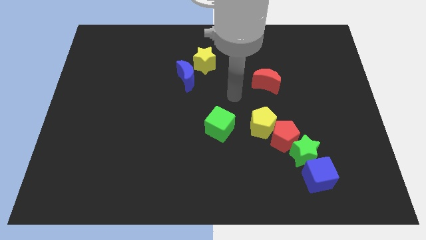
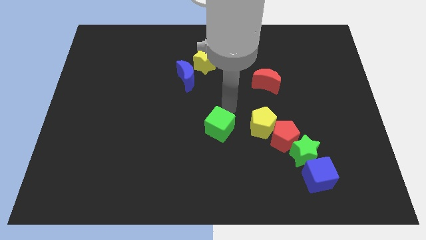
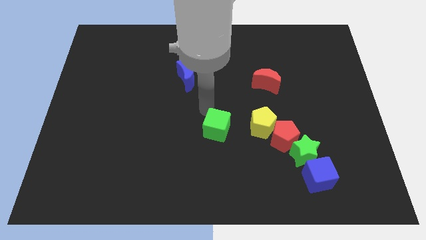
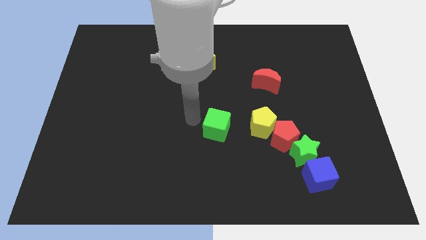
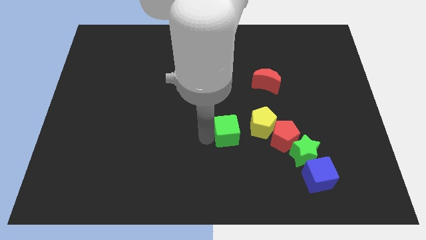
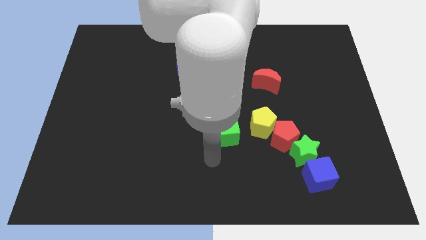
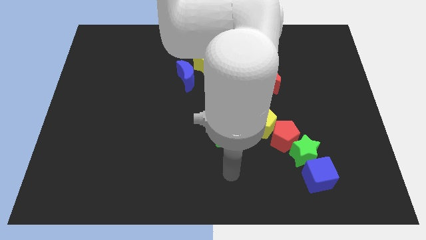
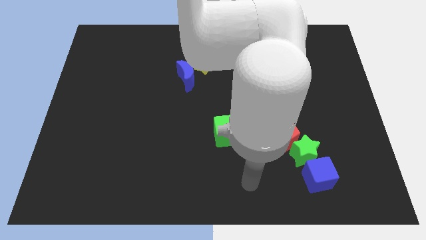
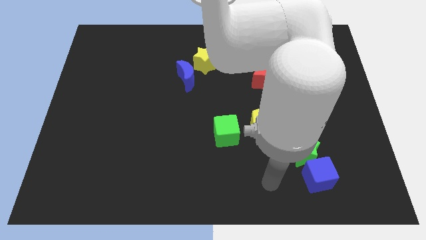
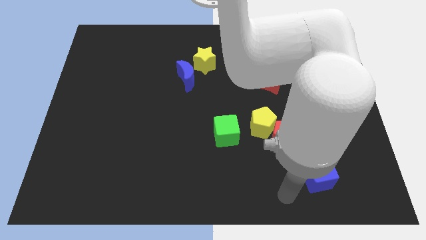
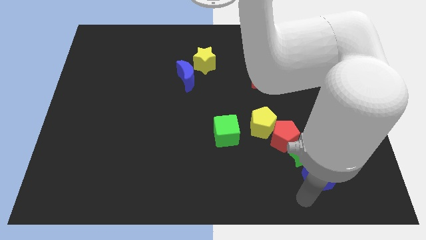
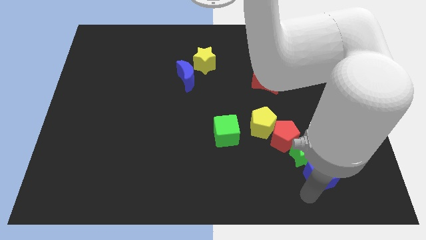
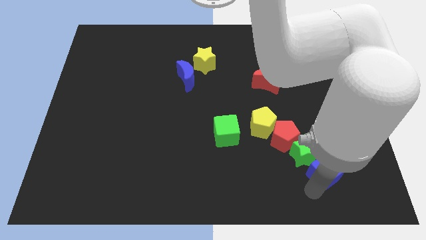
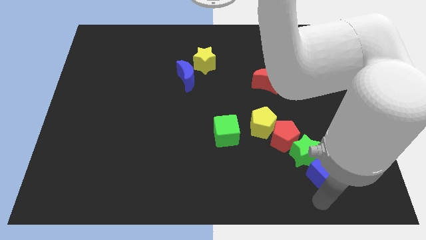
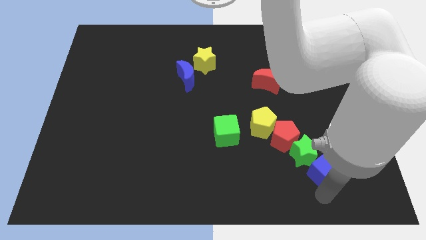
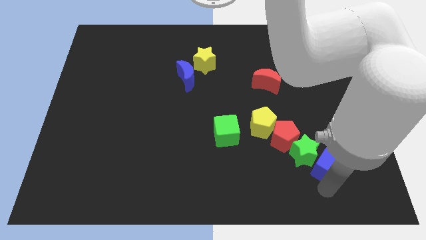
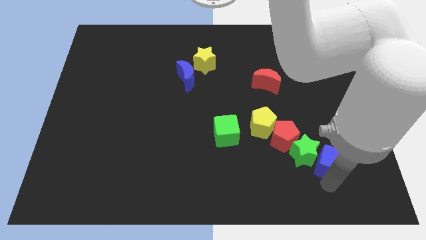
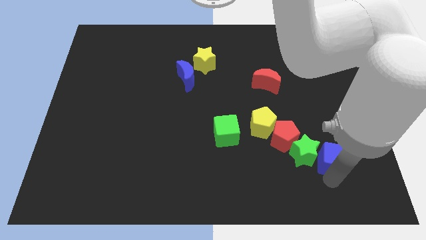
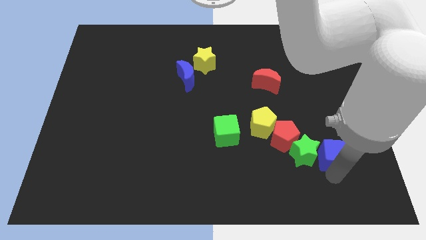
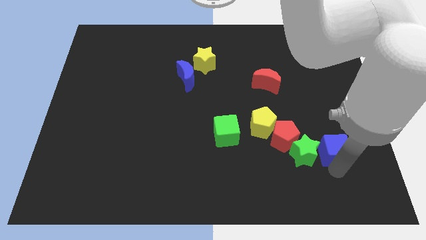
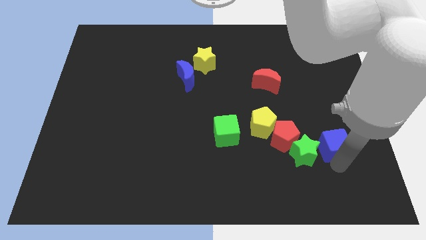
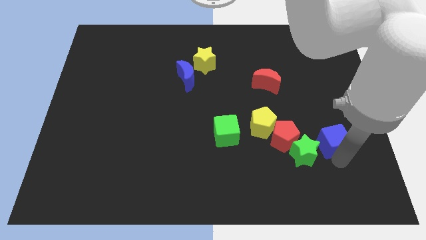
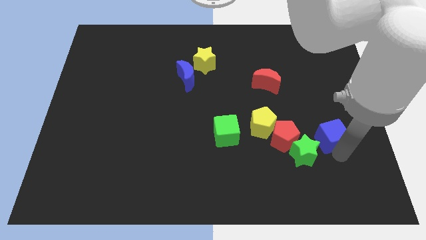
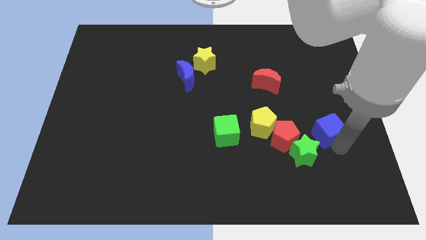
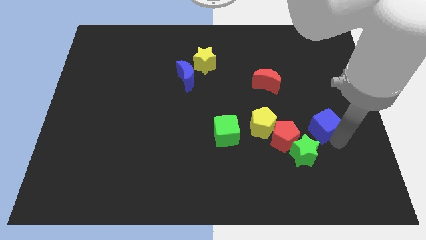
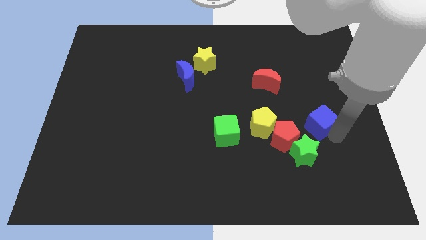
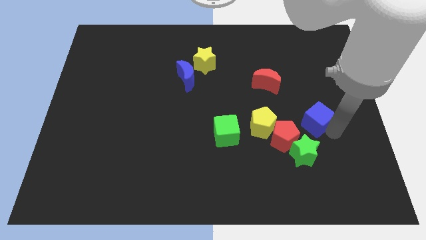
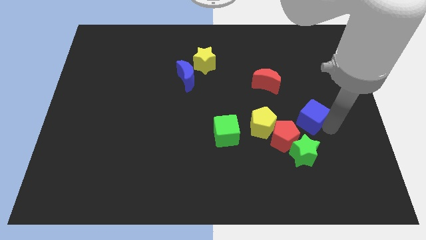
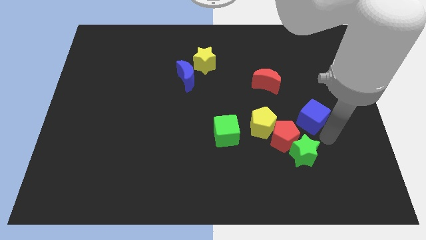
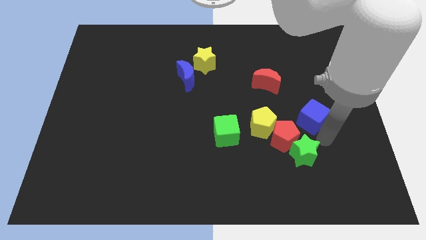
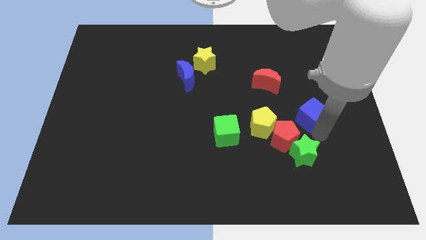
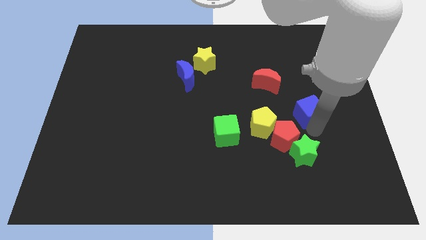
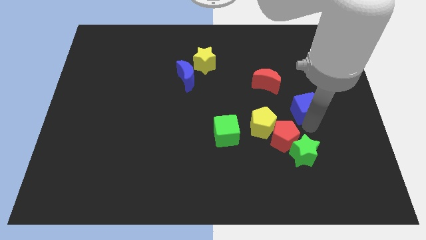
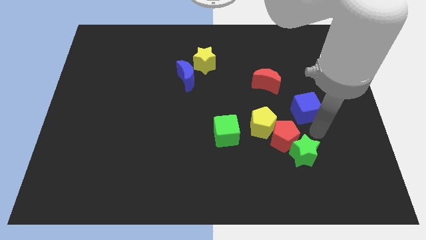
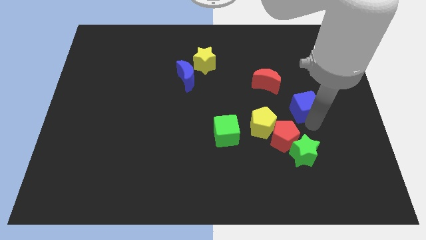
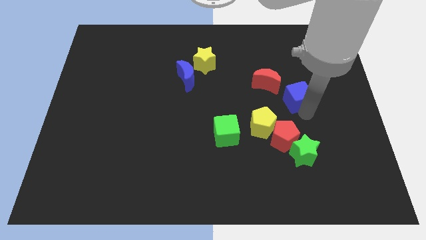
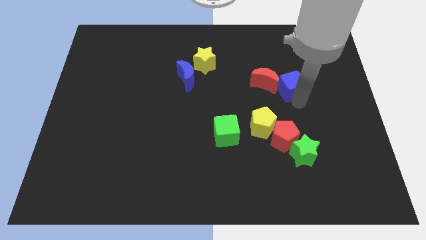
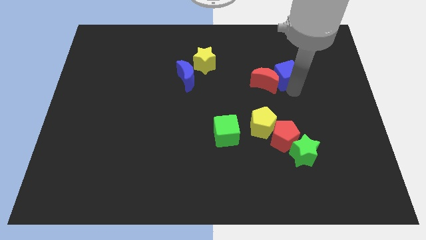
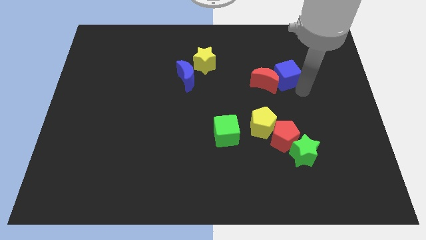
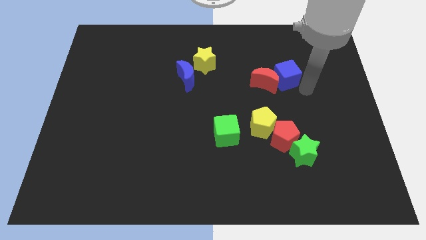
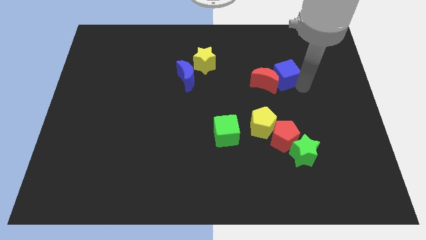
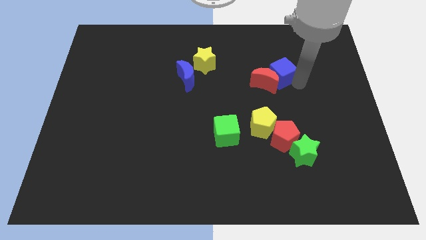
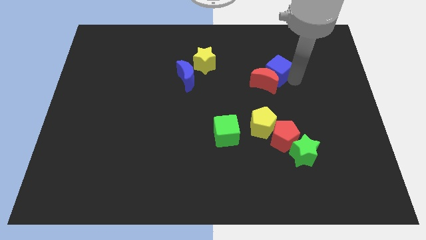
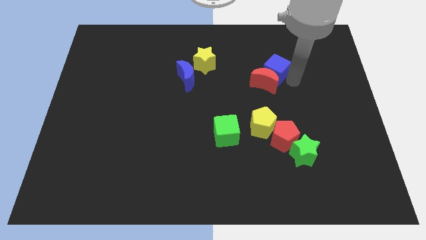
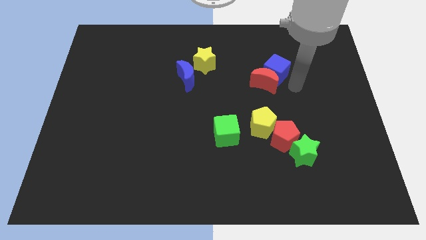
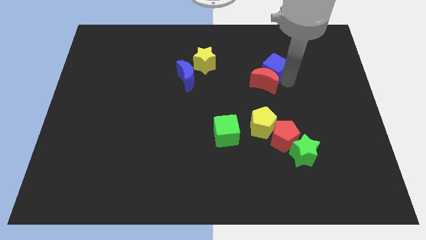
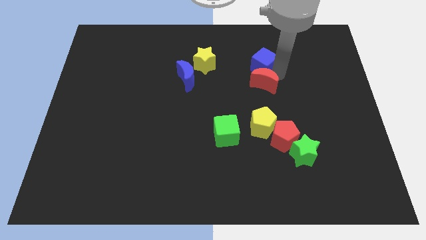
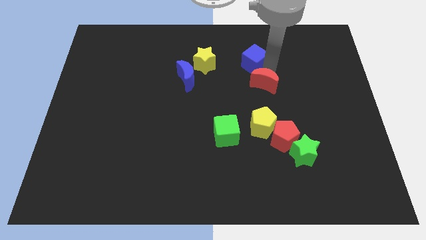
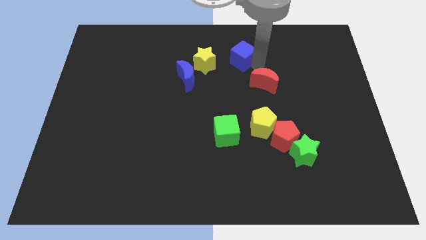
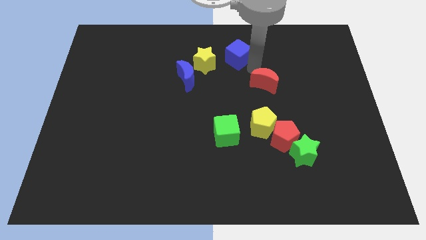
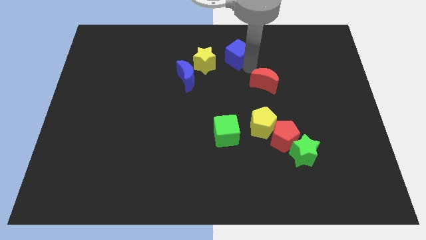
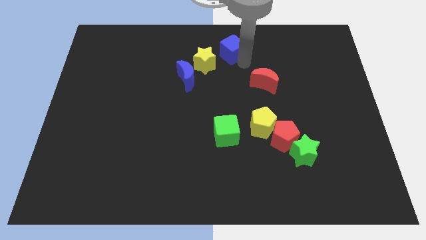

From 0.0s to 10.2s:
push the blue cube to the towards your base

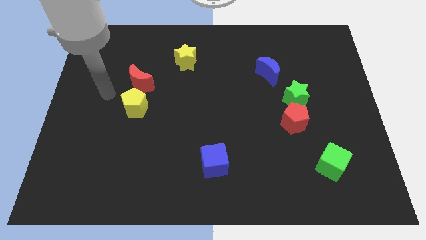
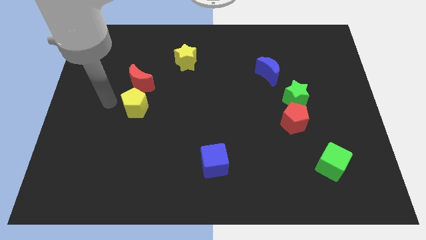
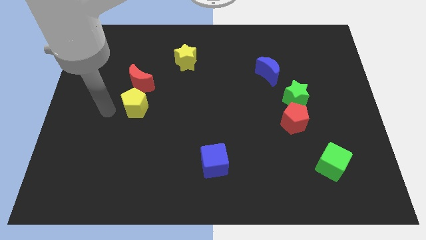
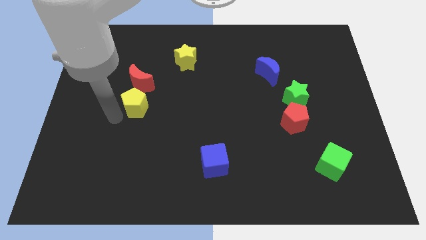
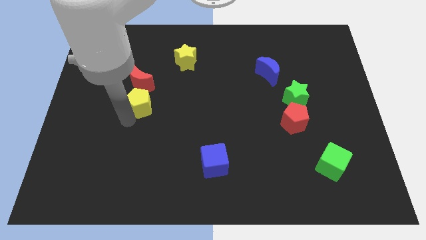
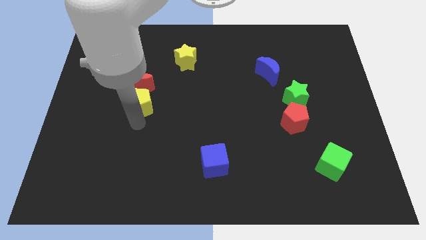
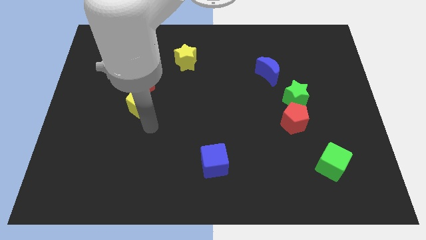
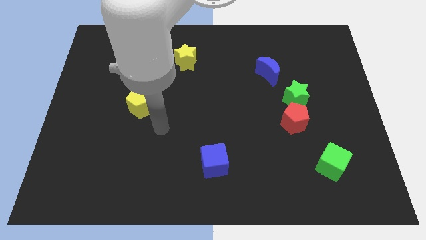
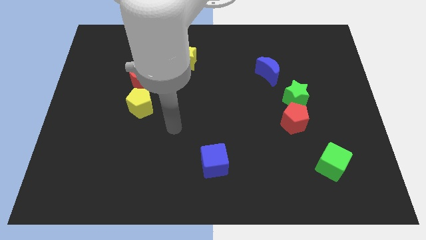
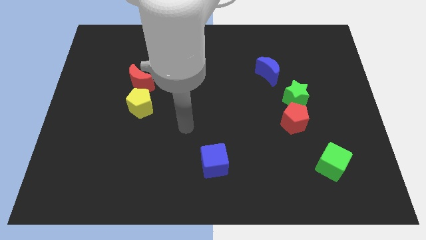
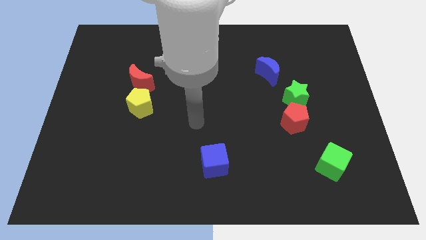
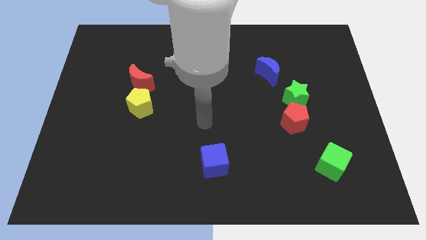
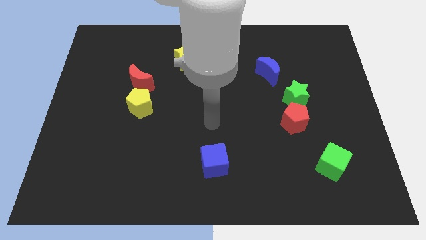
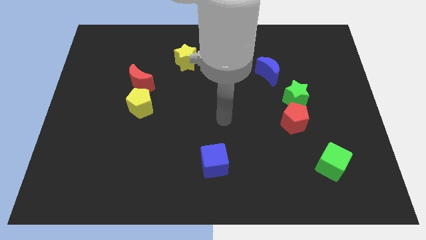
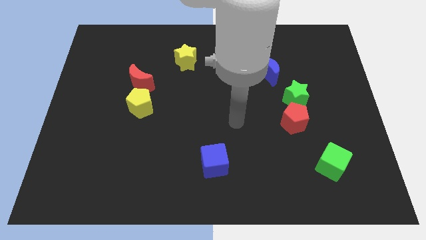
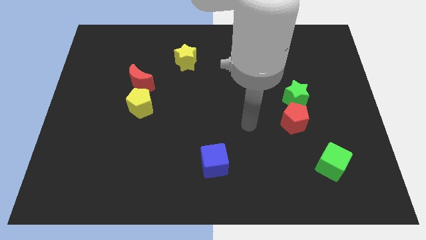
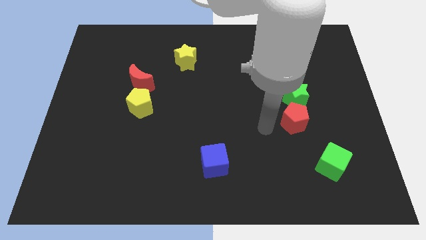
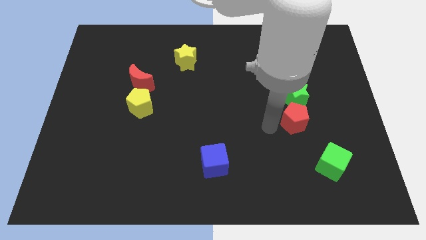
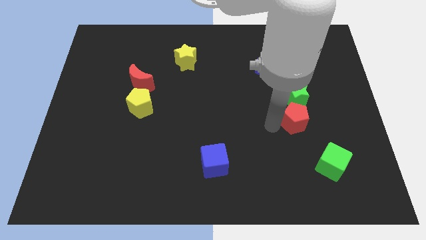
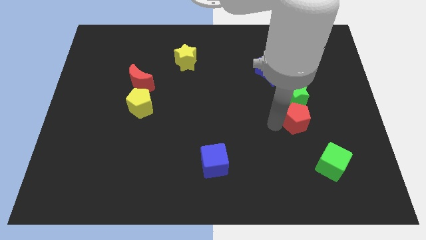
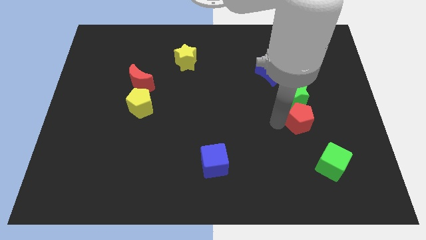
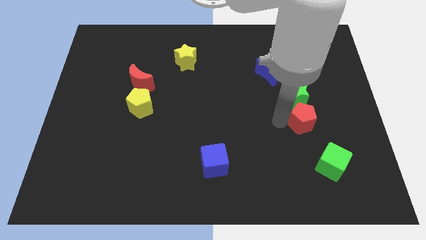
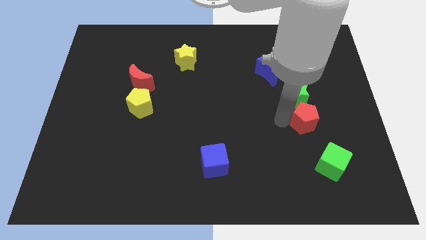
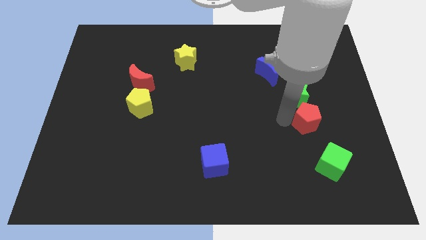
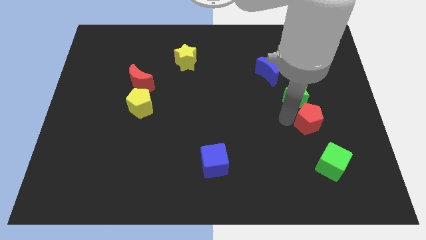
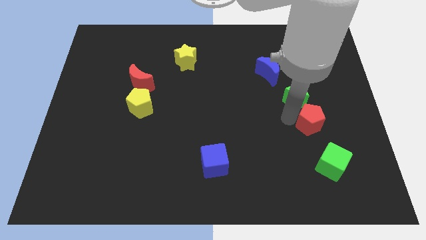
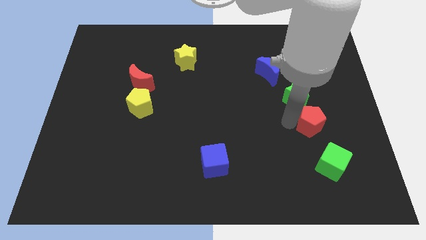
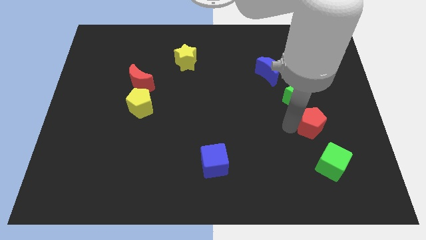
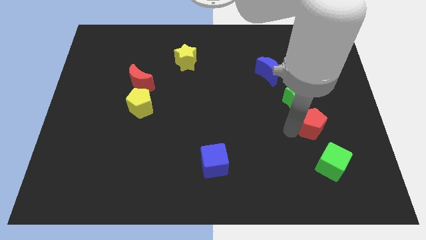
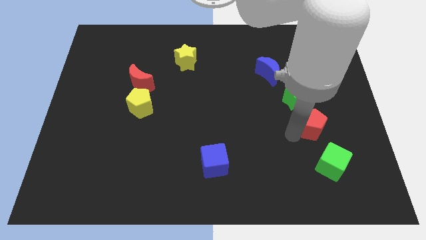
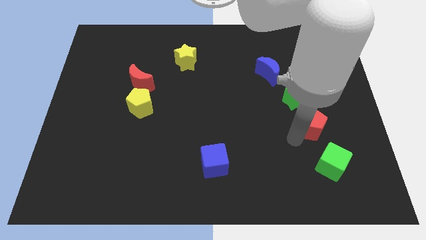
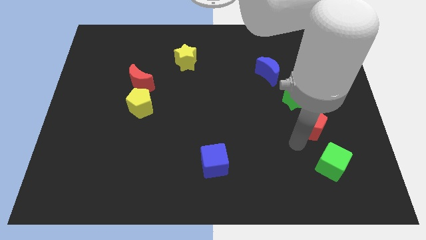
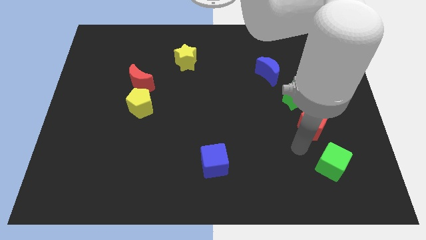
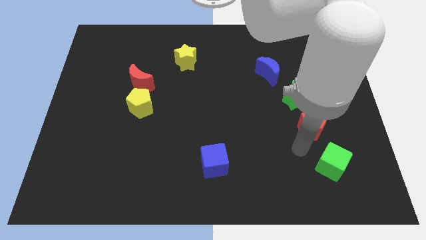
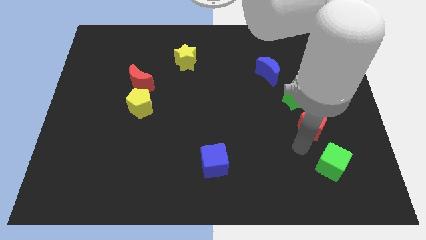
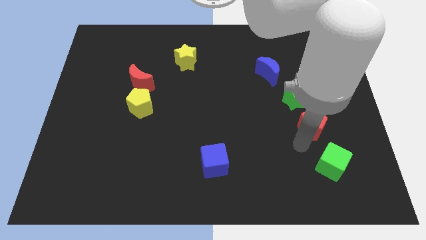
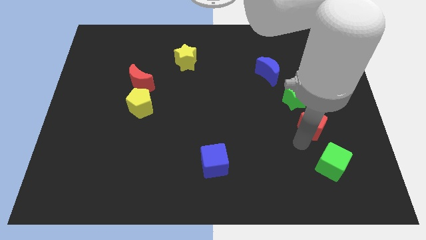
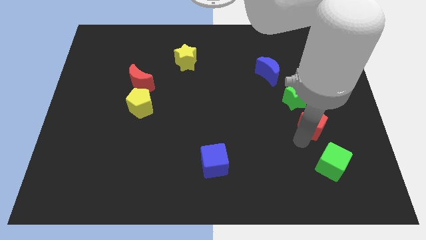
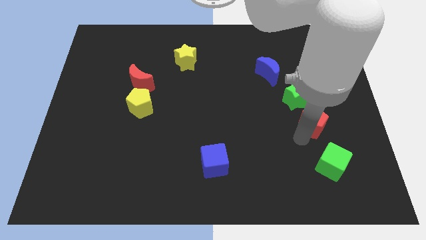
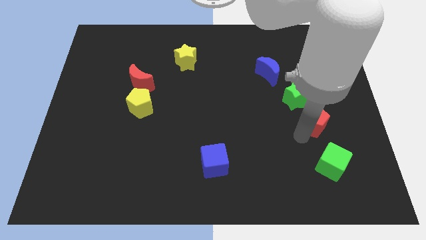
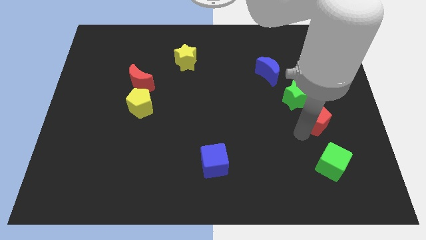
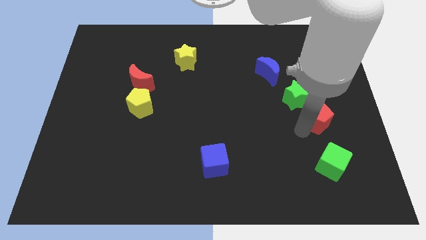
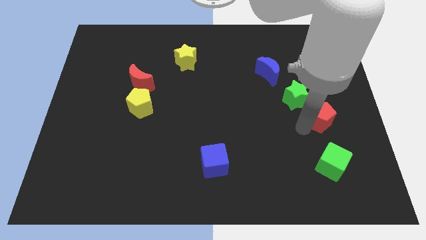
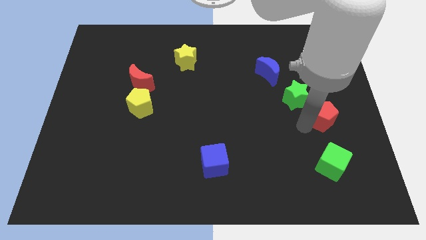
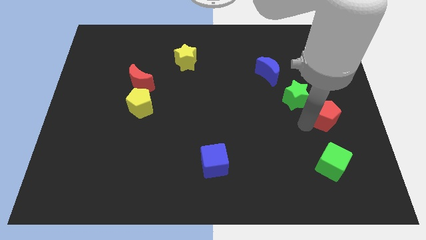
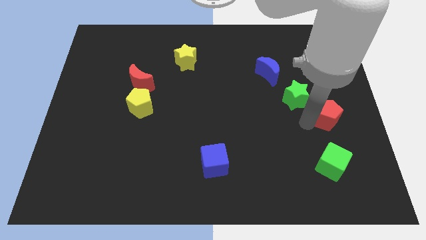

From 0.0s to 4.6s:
put the red pentagon to the right side of the board
